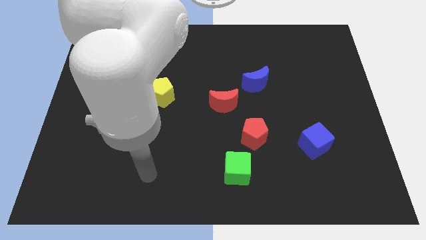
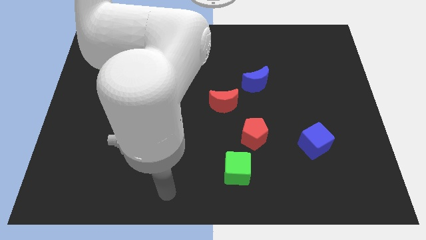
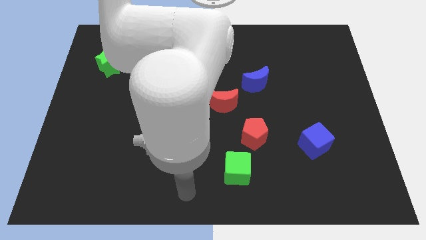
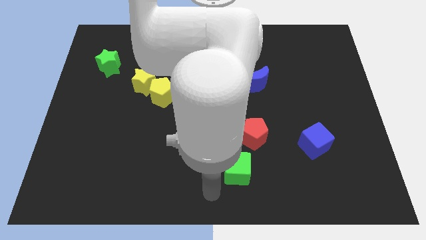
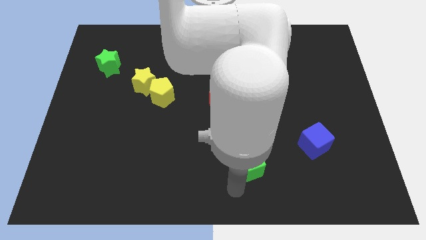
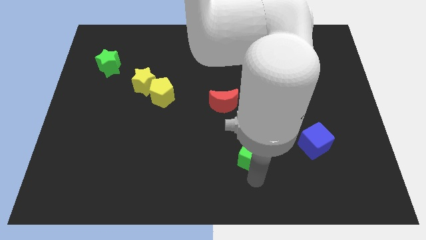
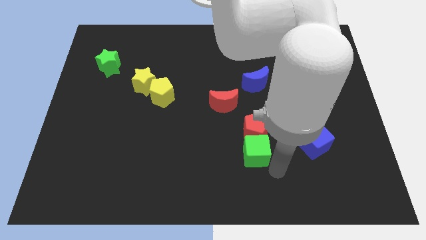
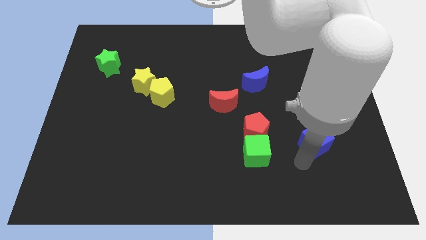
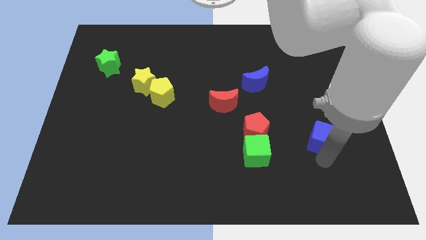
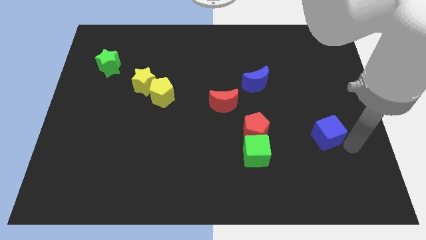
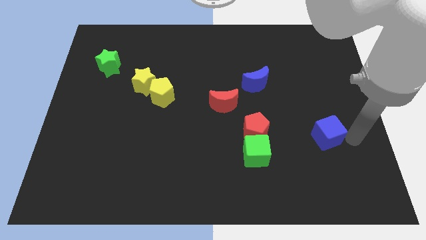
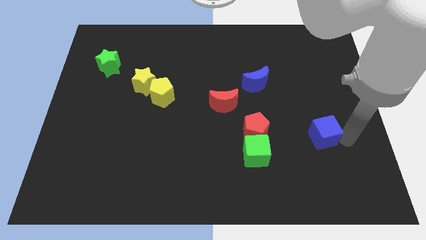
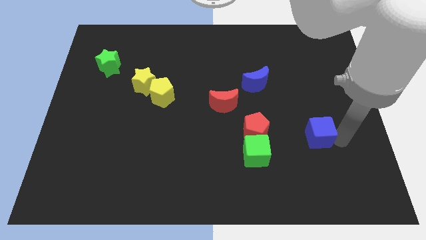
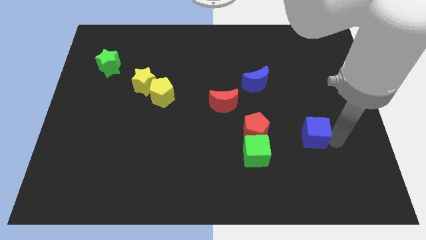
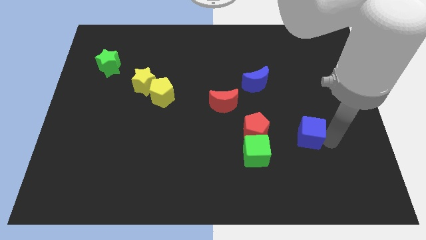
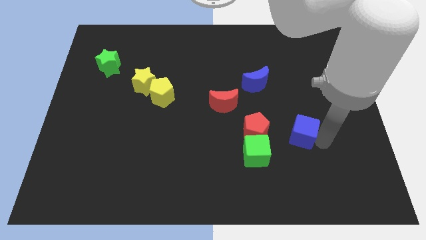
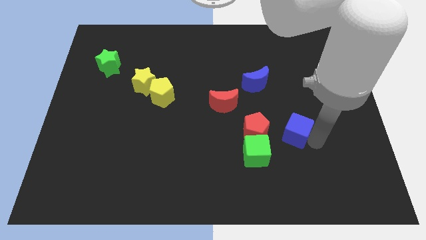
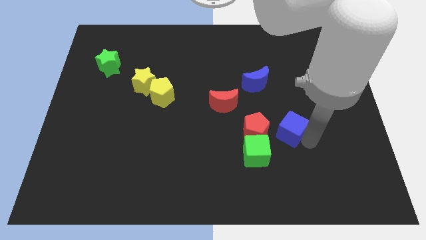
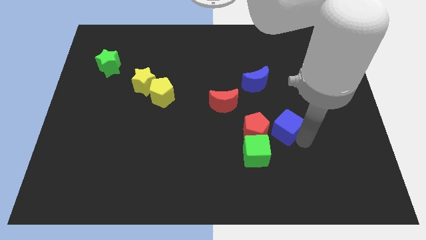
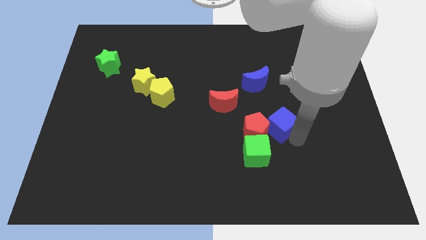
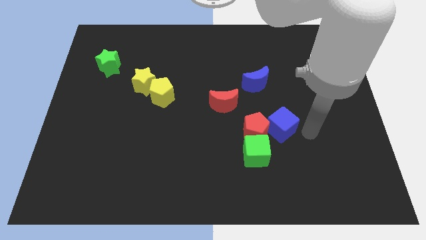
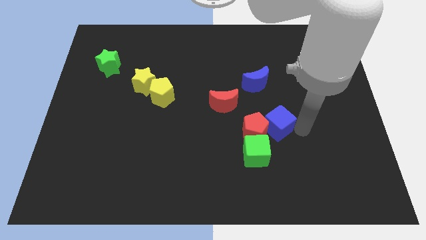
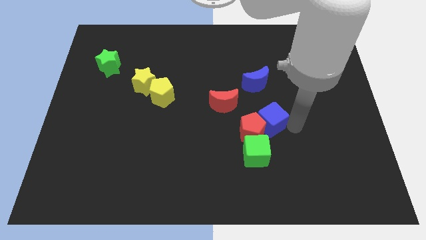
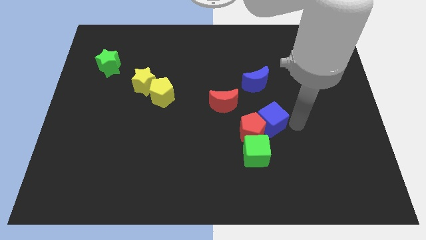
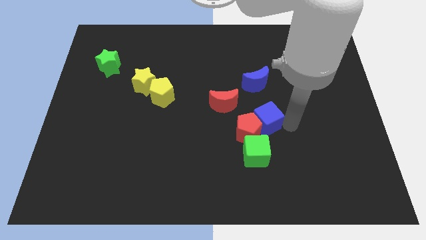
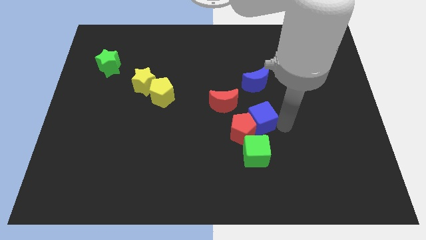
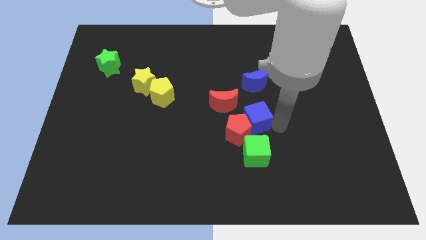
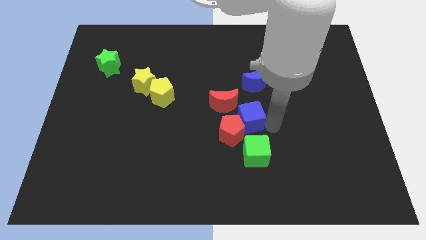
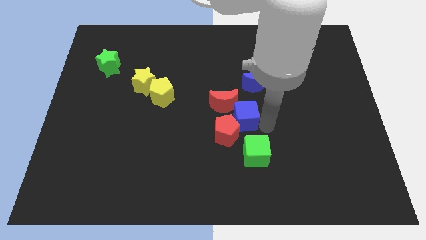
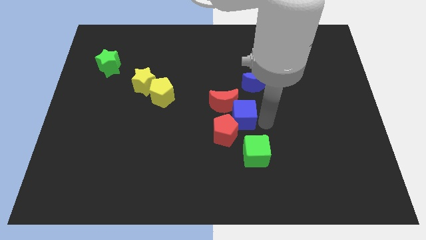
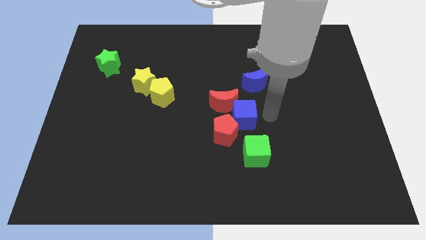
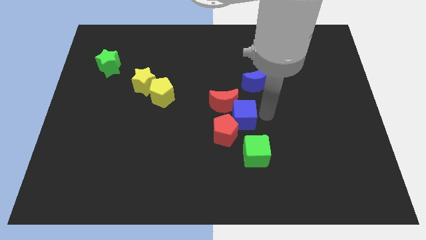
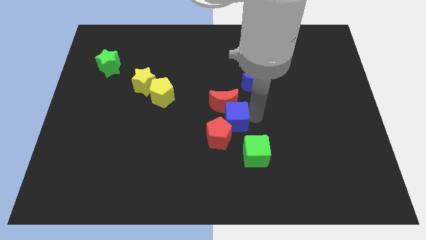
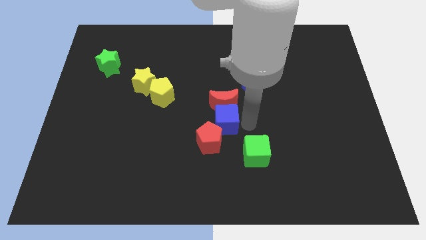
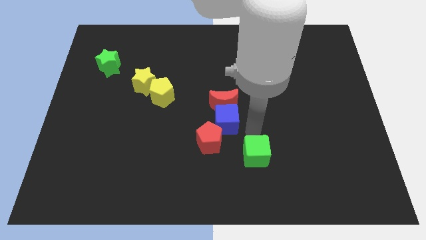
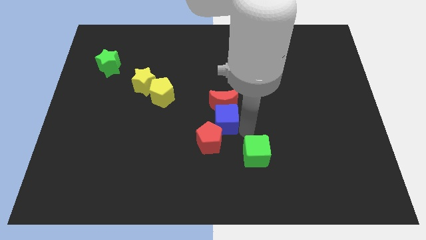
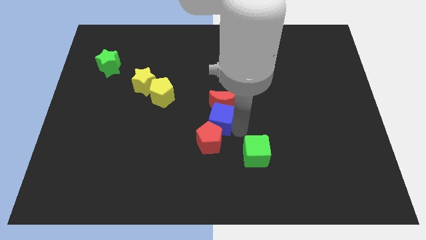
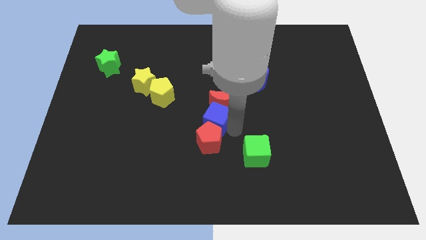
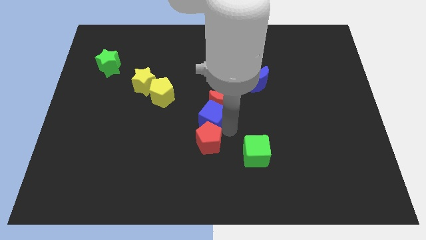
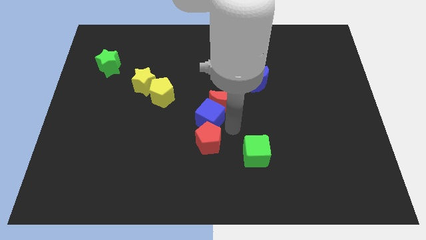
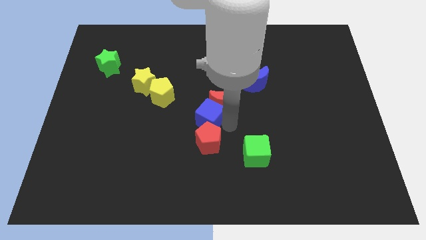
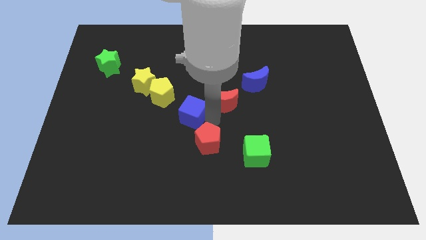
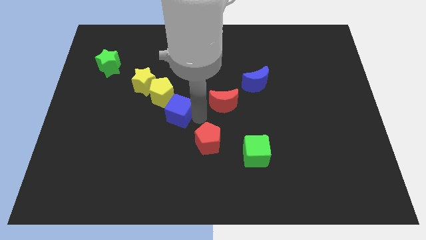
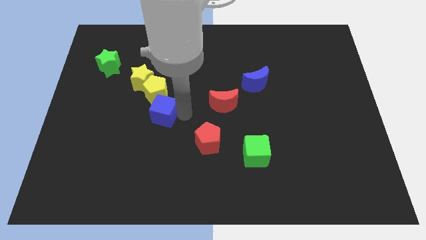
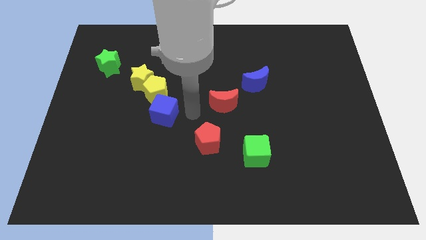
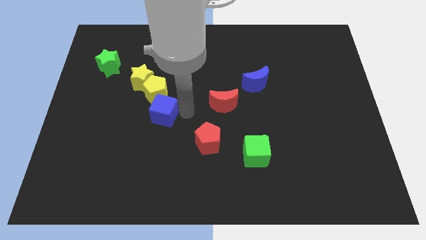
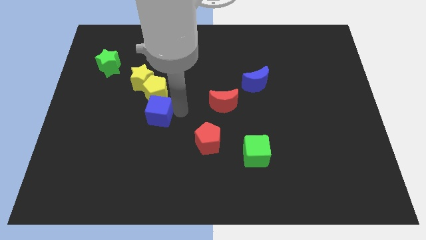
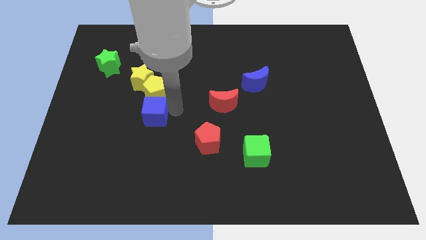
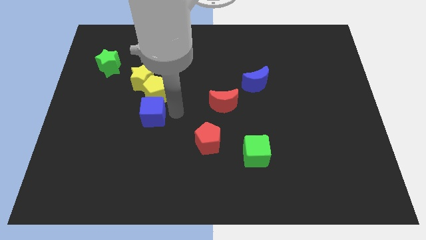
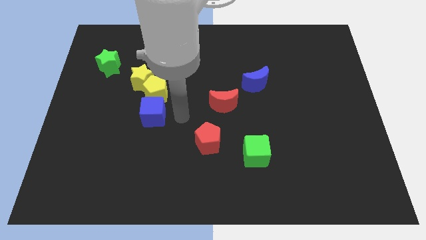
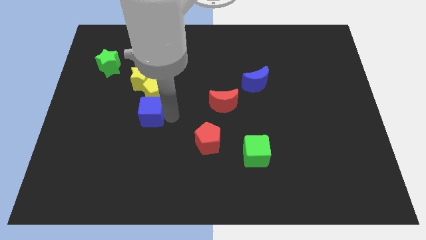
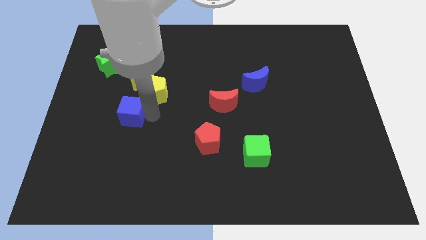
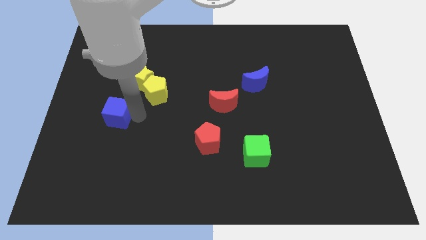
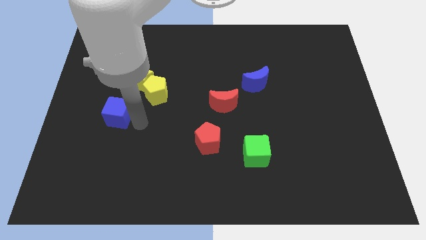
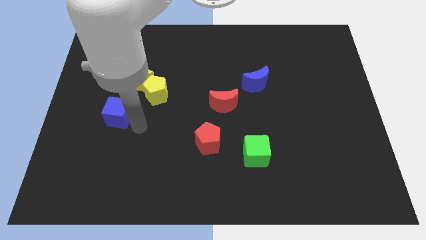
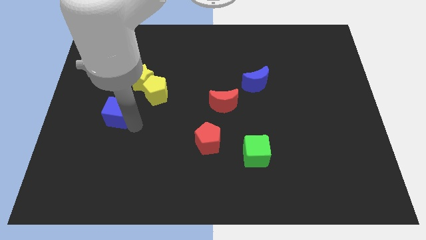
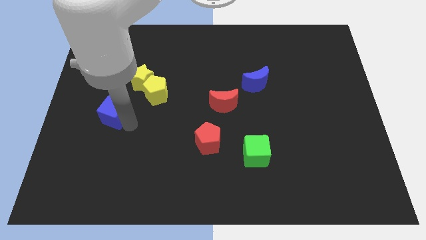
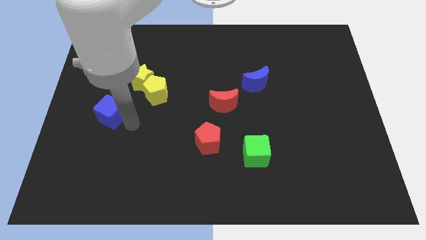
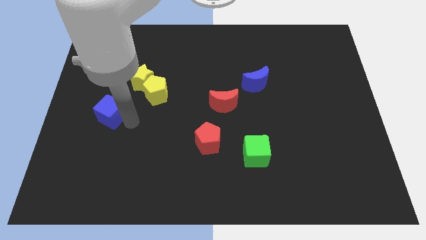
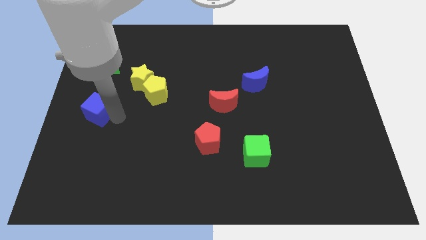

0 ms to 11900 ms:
put the blue cube to the center left

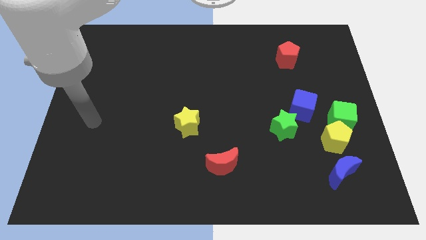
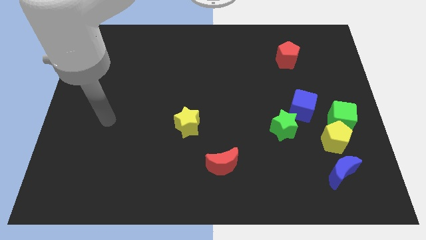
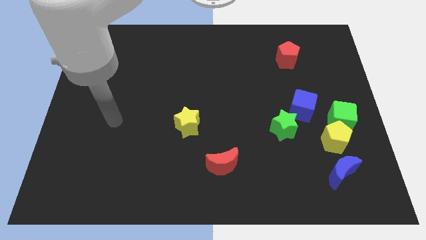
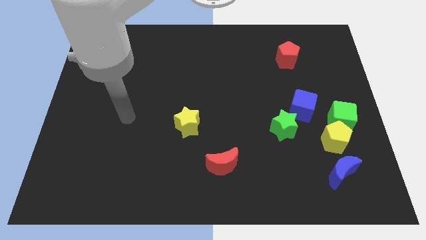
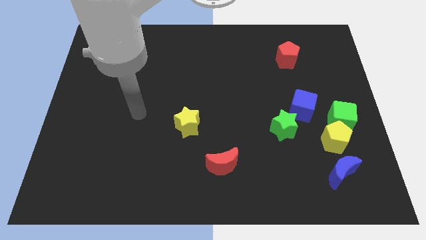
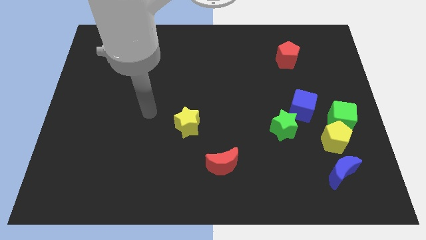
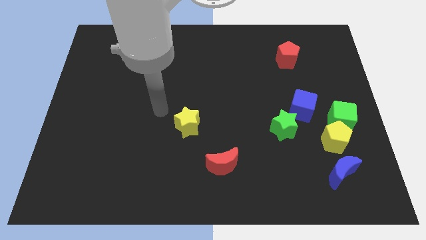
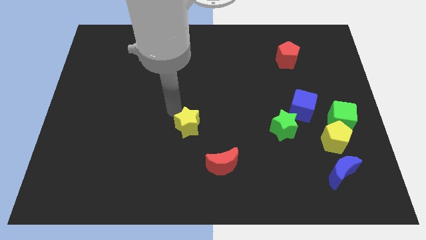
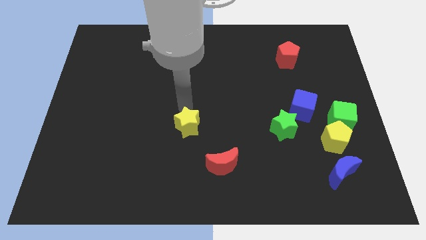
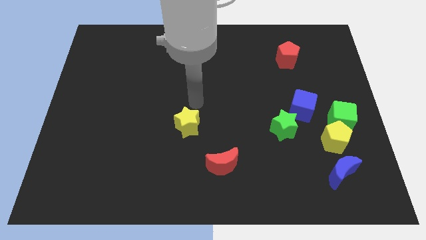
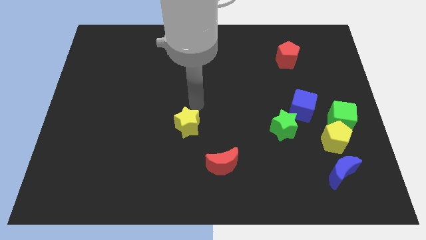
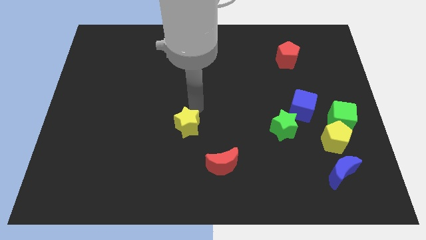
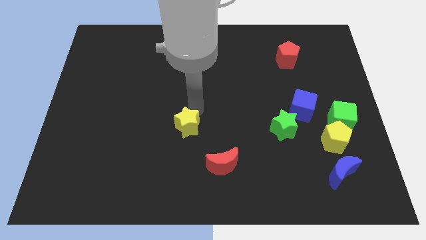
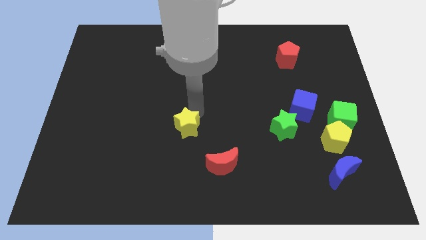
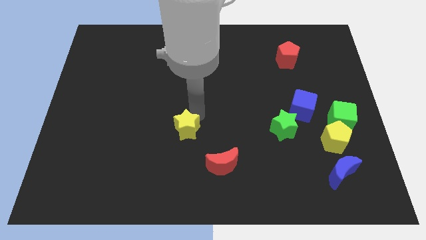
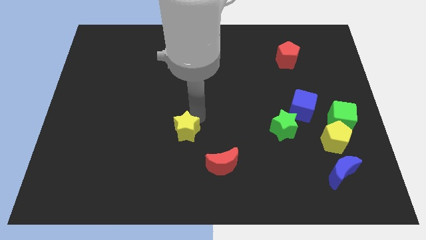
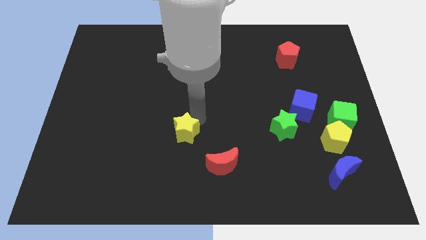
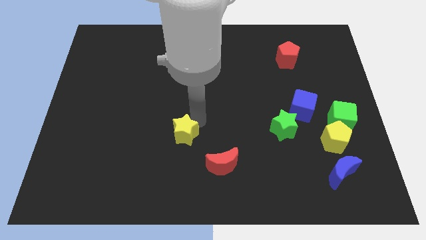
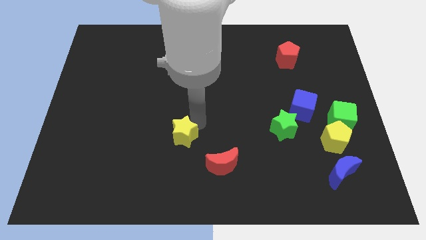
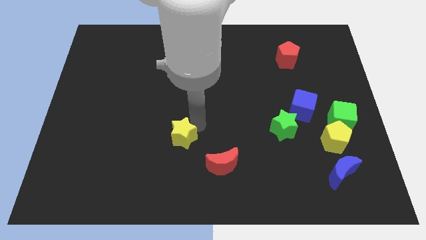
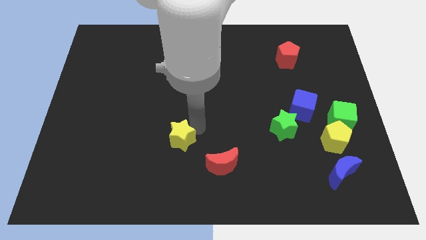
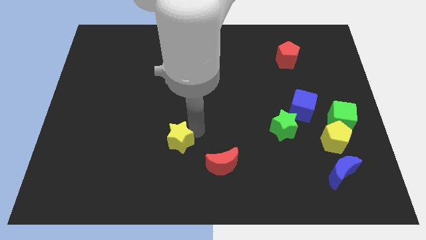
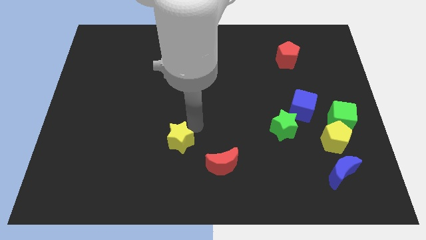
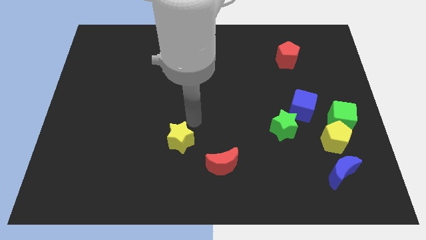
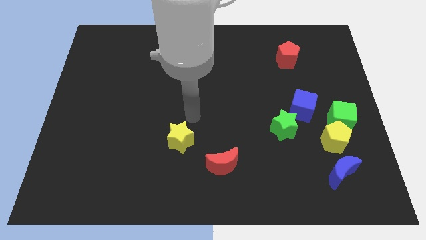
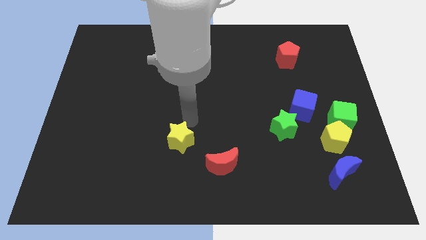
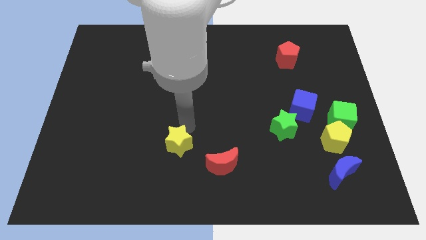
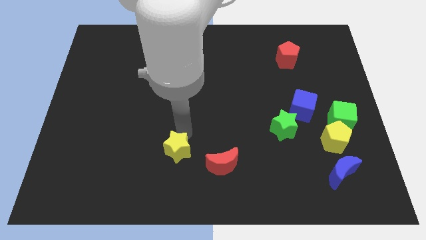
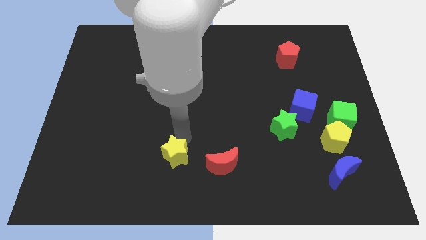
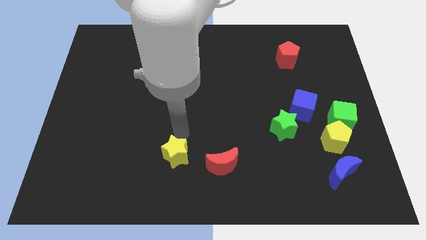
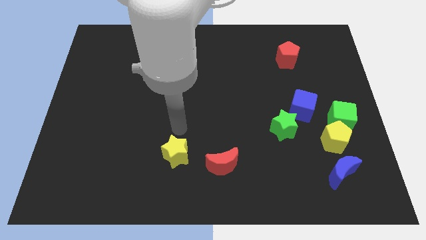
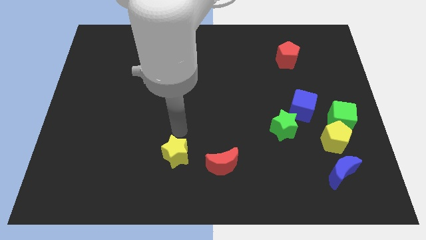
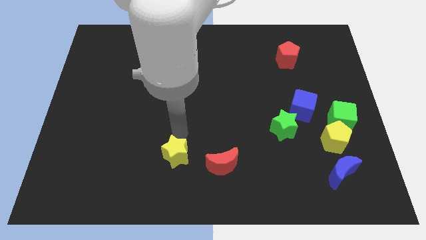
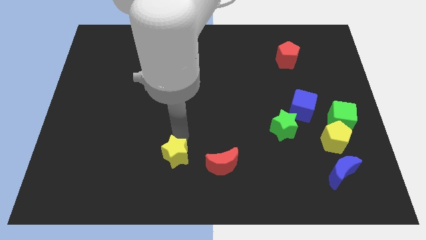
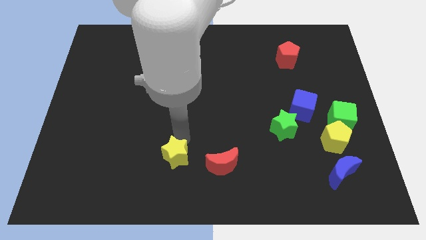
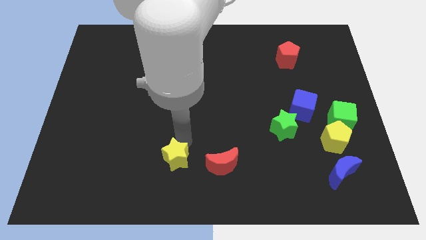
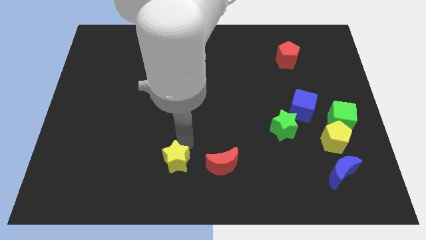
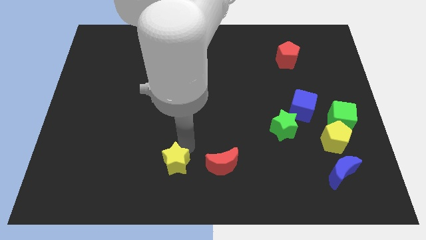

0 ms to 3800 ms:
move the yellow star to the bottom
